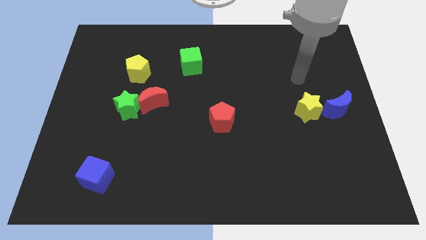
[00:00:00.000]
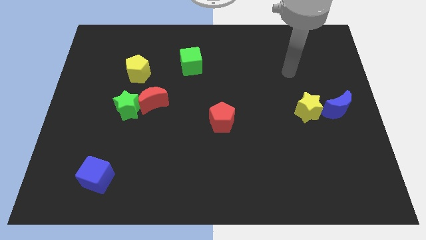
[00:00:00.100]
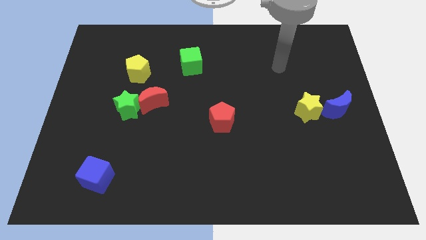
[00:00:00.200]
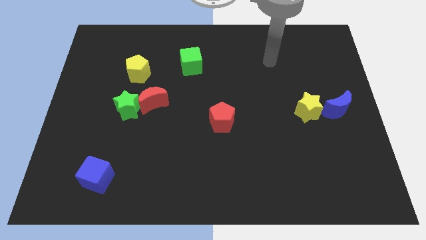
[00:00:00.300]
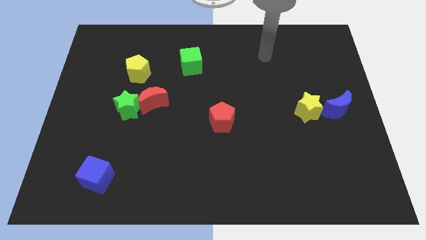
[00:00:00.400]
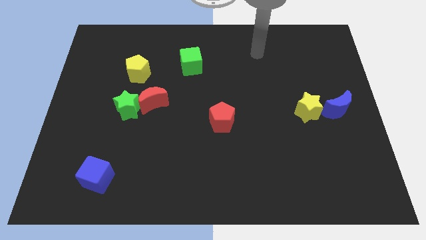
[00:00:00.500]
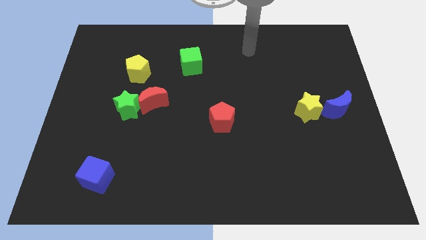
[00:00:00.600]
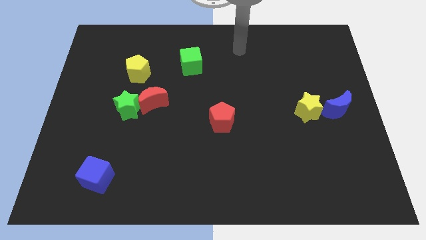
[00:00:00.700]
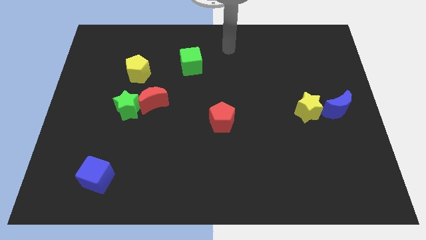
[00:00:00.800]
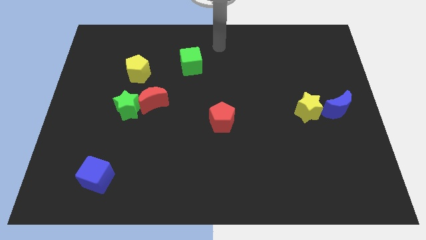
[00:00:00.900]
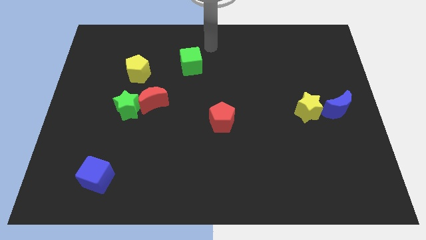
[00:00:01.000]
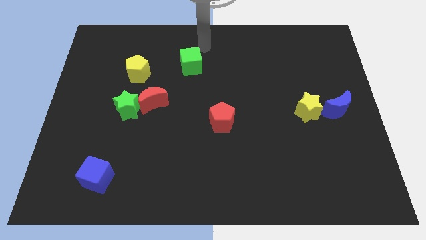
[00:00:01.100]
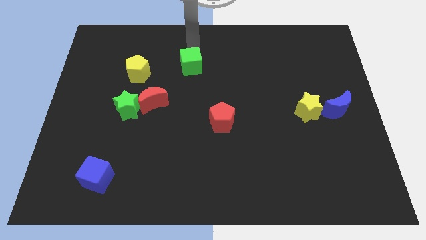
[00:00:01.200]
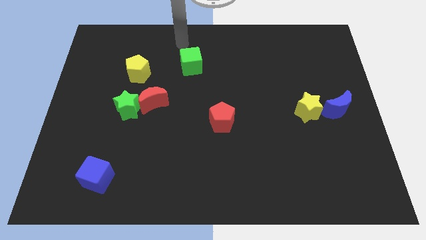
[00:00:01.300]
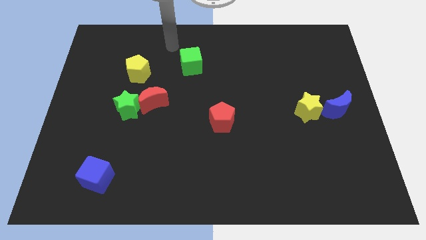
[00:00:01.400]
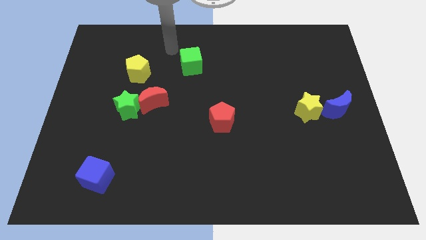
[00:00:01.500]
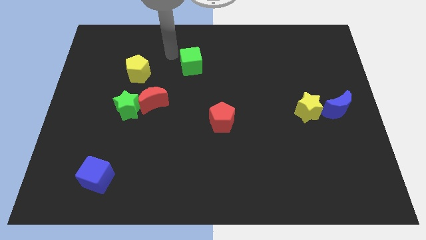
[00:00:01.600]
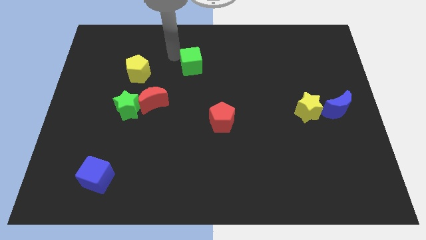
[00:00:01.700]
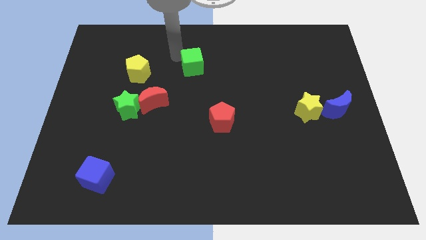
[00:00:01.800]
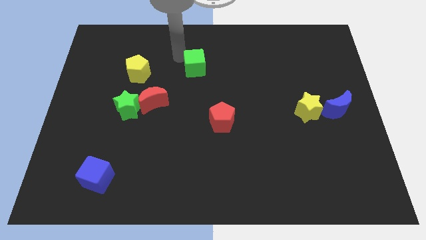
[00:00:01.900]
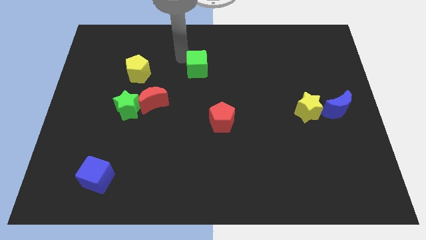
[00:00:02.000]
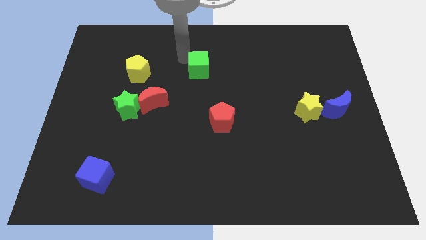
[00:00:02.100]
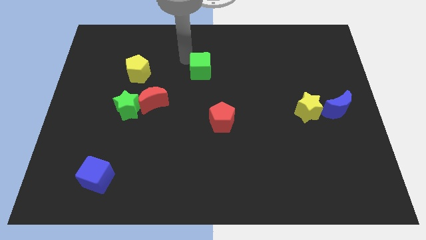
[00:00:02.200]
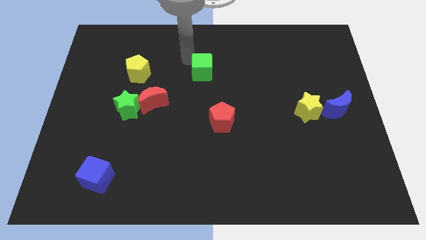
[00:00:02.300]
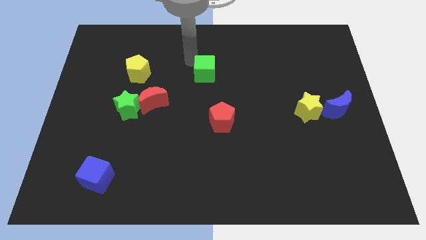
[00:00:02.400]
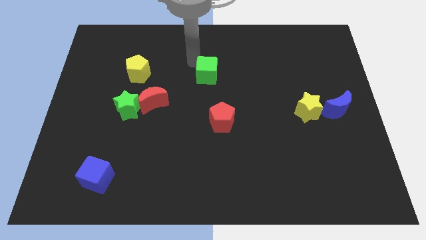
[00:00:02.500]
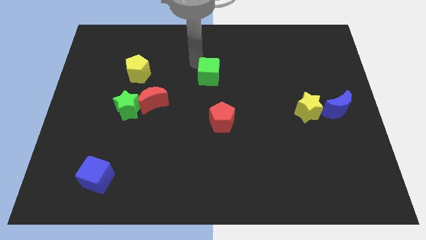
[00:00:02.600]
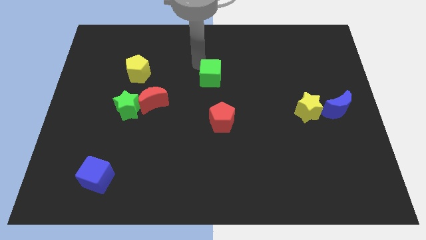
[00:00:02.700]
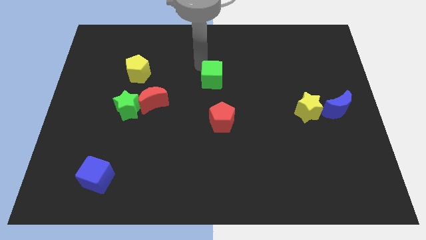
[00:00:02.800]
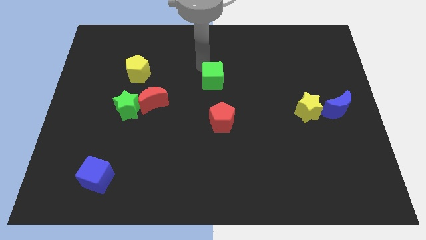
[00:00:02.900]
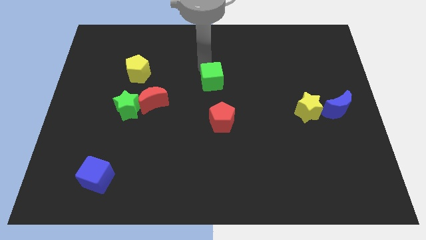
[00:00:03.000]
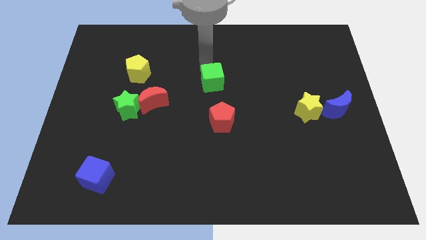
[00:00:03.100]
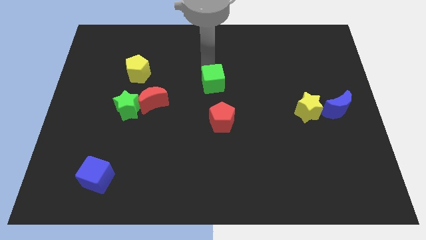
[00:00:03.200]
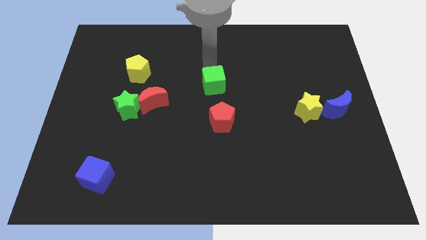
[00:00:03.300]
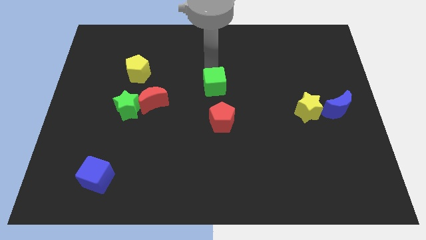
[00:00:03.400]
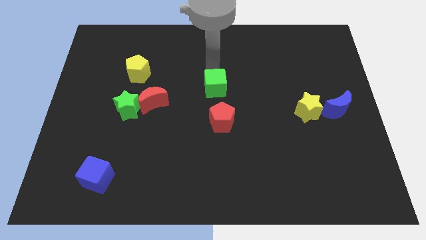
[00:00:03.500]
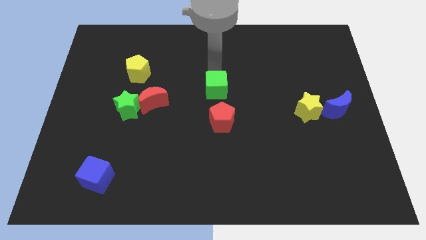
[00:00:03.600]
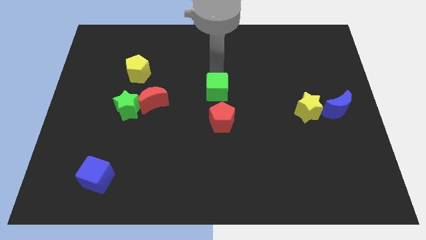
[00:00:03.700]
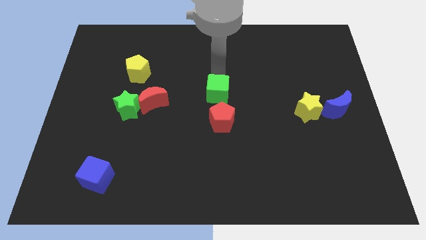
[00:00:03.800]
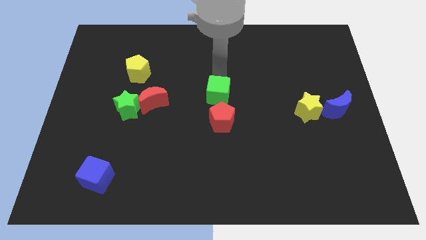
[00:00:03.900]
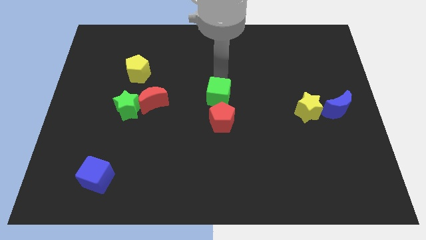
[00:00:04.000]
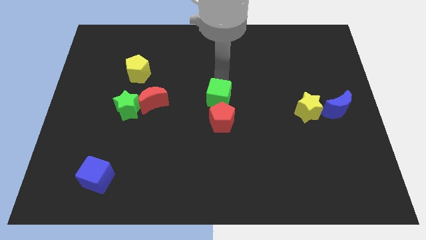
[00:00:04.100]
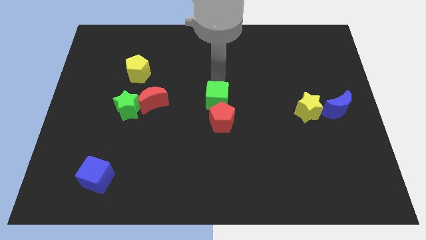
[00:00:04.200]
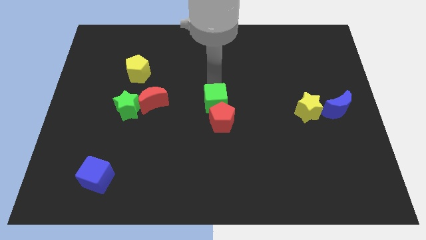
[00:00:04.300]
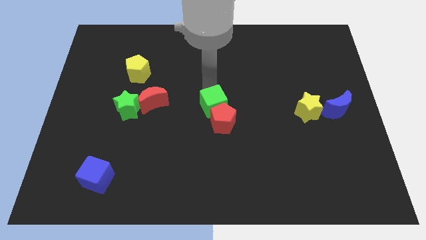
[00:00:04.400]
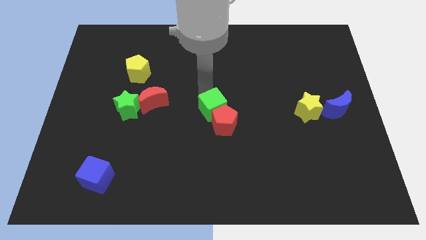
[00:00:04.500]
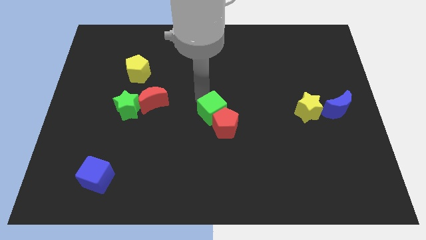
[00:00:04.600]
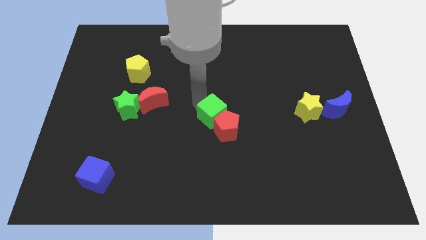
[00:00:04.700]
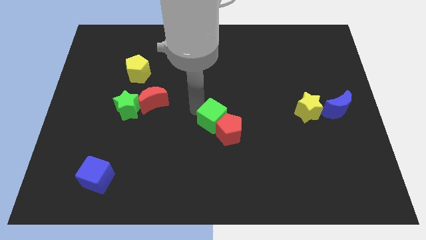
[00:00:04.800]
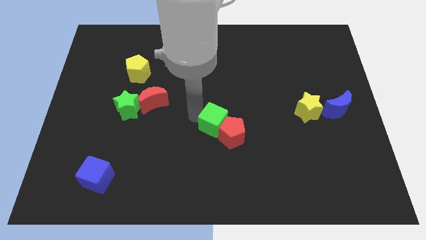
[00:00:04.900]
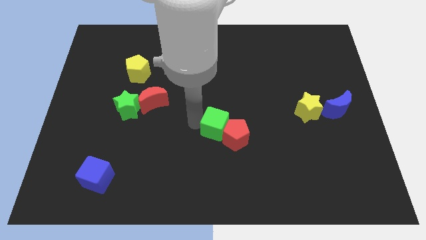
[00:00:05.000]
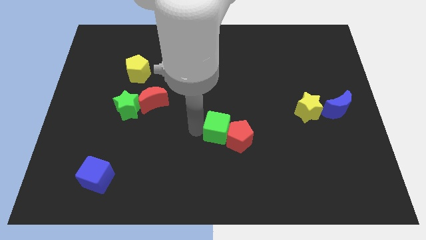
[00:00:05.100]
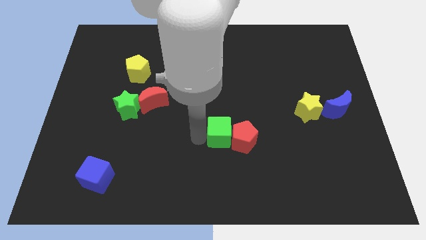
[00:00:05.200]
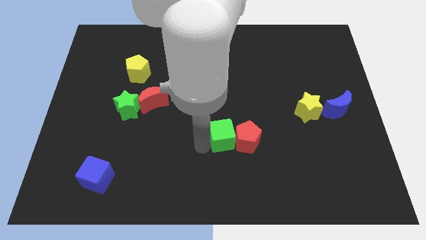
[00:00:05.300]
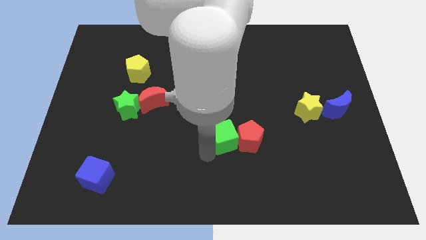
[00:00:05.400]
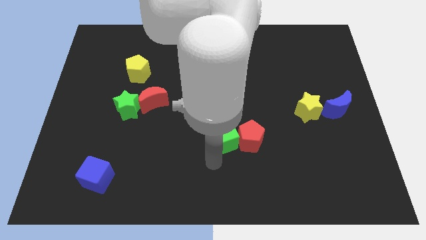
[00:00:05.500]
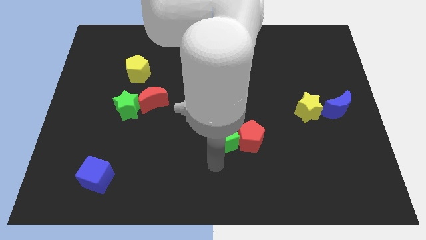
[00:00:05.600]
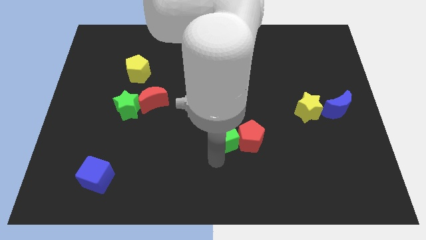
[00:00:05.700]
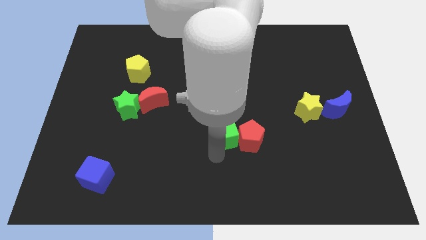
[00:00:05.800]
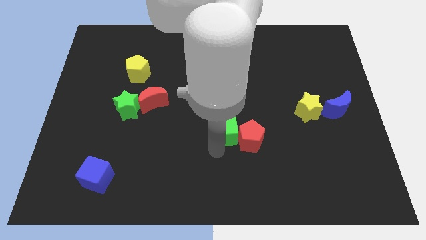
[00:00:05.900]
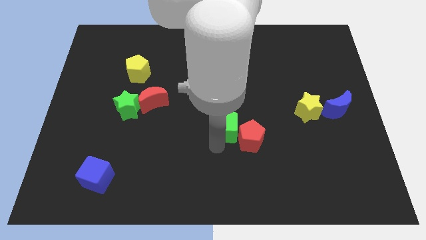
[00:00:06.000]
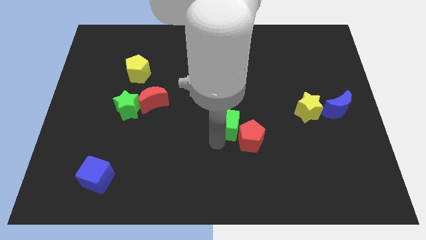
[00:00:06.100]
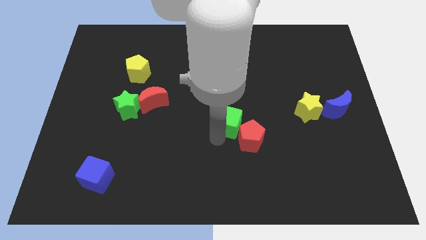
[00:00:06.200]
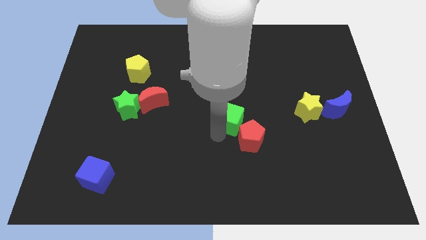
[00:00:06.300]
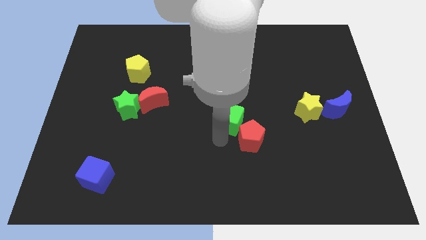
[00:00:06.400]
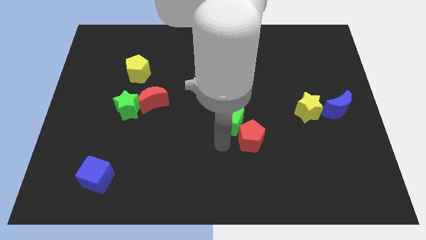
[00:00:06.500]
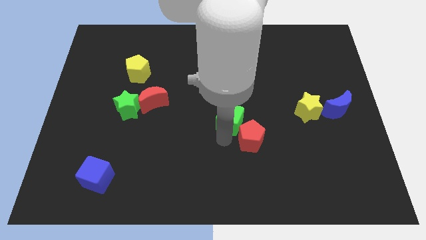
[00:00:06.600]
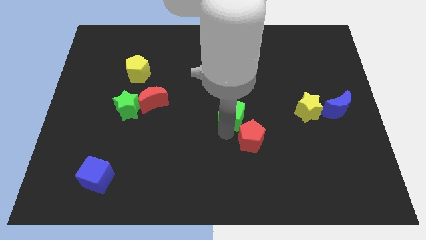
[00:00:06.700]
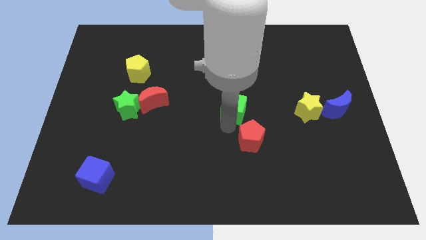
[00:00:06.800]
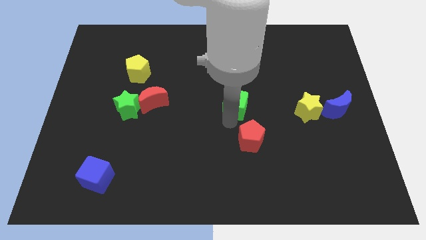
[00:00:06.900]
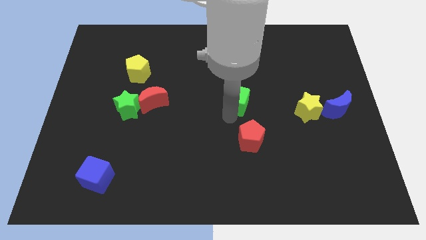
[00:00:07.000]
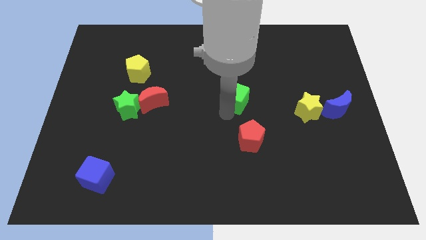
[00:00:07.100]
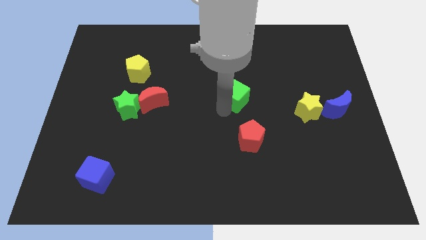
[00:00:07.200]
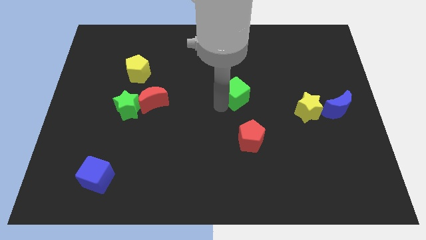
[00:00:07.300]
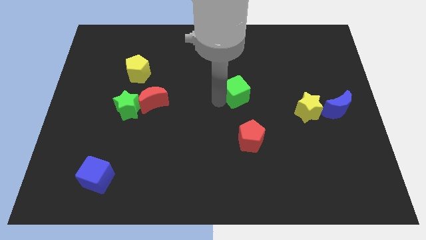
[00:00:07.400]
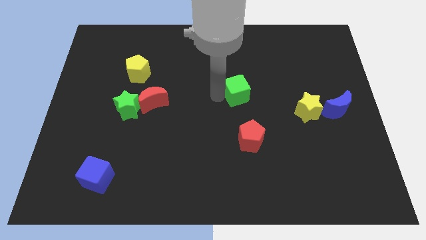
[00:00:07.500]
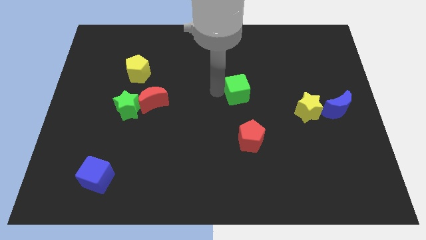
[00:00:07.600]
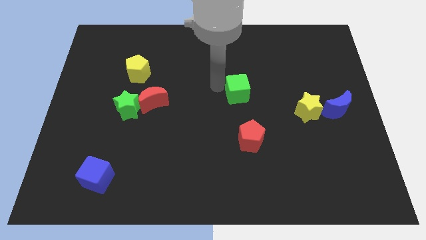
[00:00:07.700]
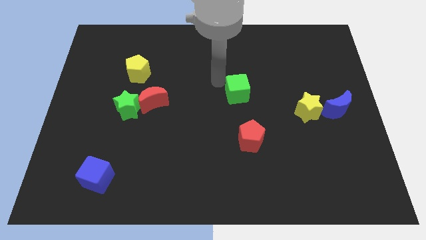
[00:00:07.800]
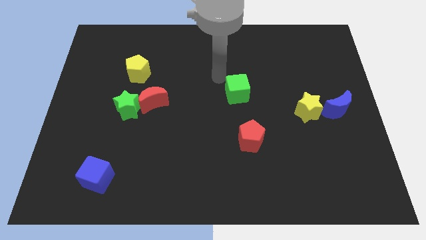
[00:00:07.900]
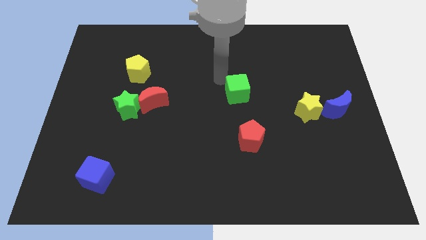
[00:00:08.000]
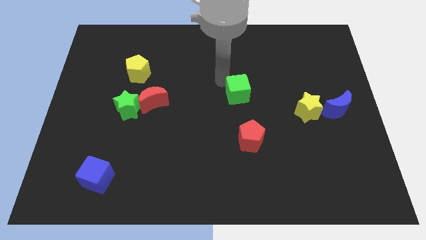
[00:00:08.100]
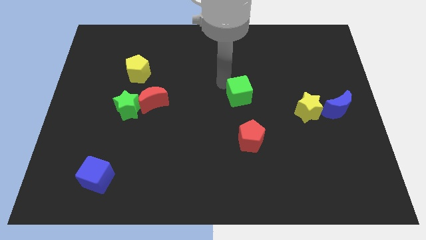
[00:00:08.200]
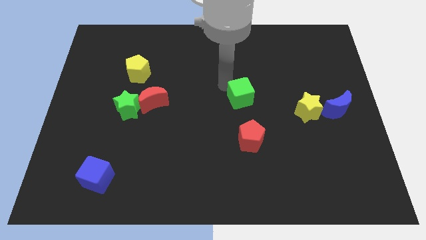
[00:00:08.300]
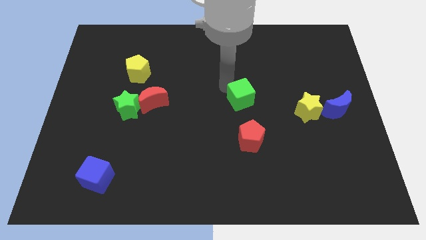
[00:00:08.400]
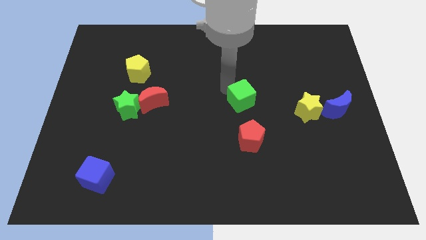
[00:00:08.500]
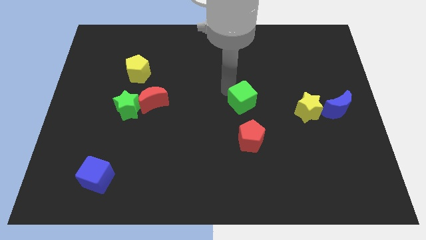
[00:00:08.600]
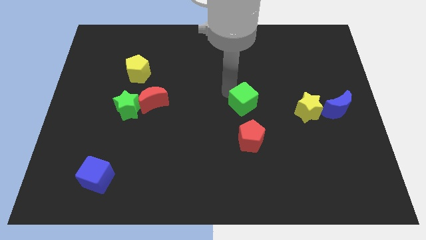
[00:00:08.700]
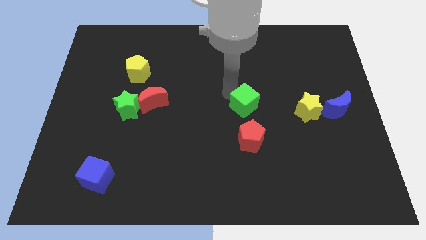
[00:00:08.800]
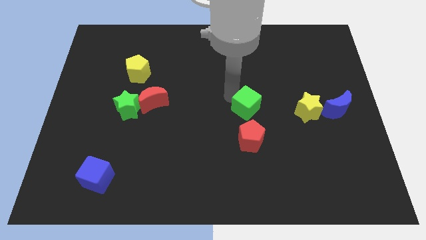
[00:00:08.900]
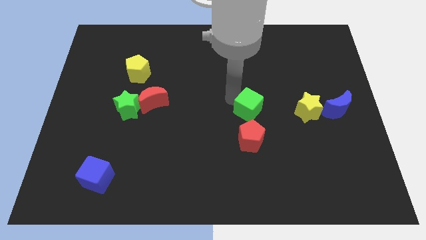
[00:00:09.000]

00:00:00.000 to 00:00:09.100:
push the green cube down and to the right
